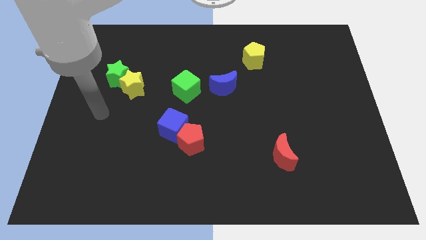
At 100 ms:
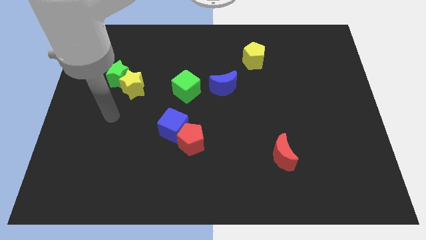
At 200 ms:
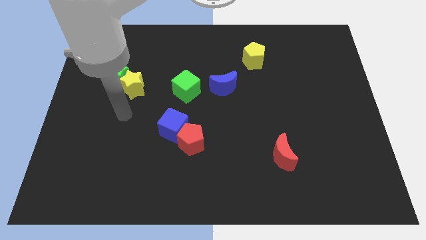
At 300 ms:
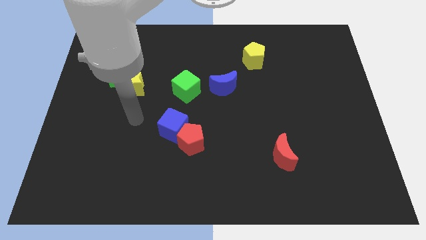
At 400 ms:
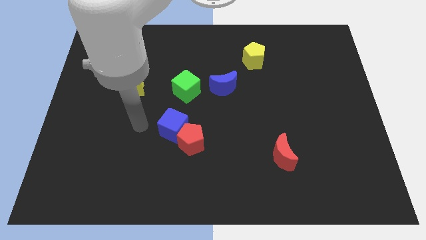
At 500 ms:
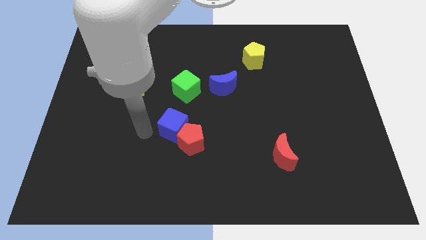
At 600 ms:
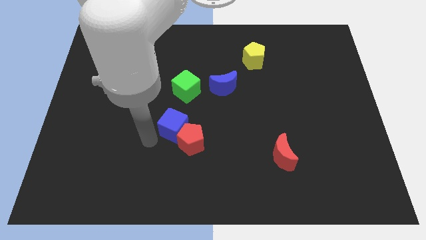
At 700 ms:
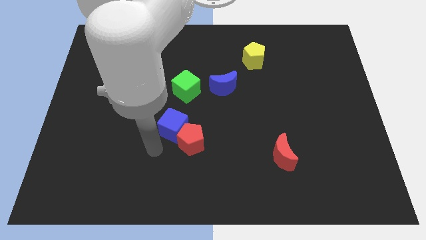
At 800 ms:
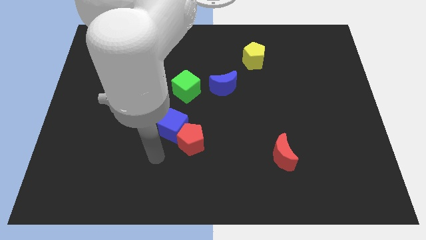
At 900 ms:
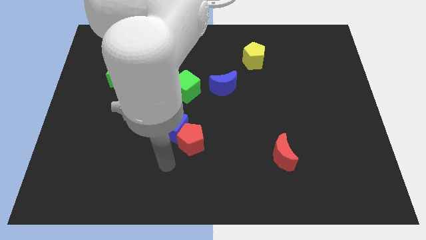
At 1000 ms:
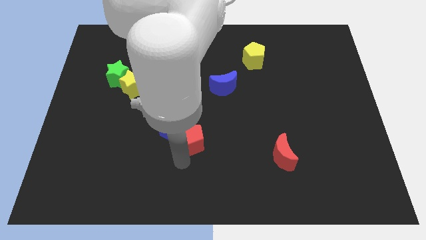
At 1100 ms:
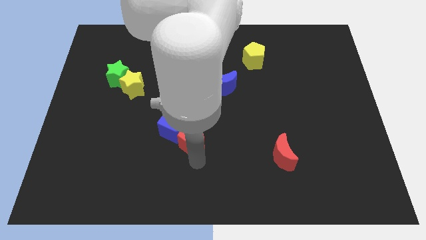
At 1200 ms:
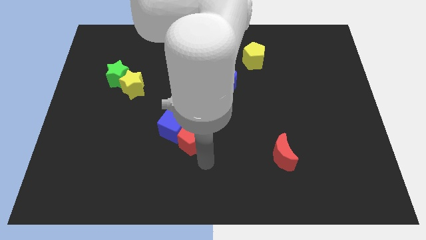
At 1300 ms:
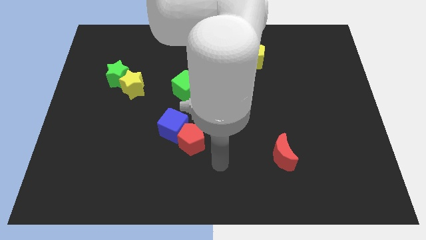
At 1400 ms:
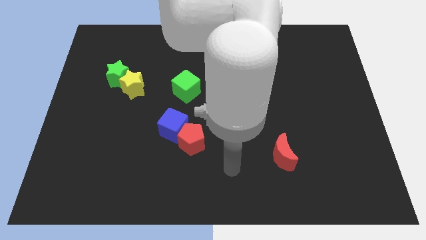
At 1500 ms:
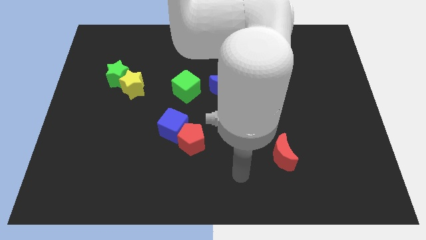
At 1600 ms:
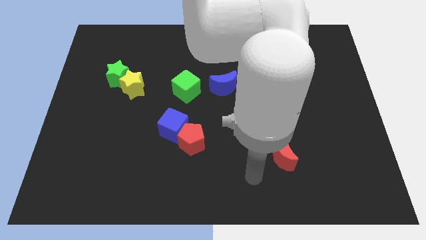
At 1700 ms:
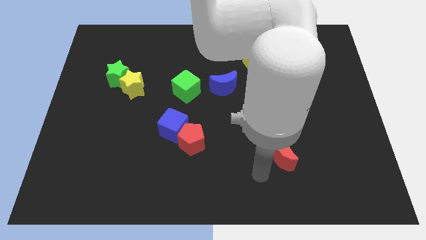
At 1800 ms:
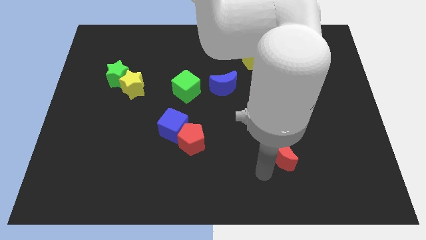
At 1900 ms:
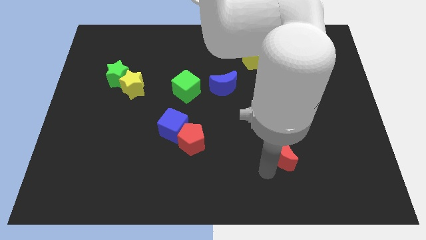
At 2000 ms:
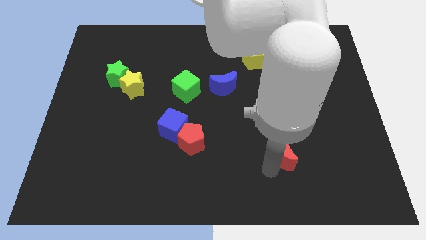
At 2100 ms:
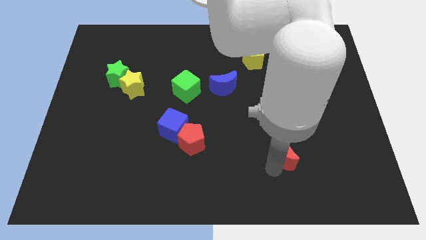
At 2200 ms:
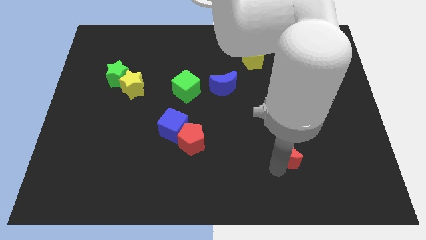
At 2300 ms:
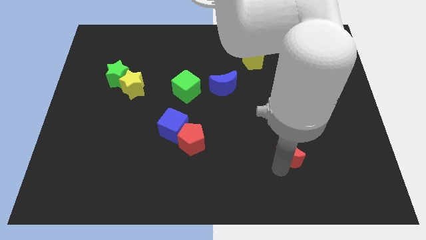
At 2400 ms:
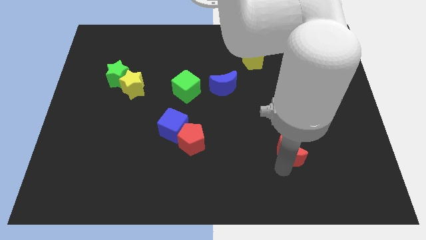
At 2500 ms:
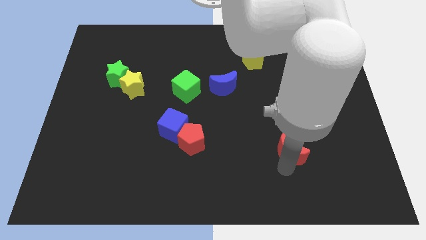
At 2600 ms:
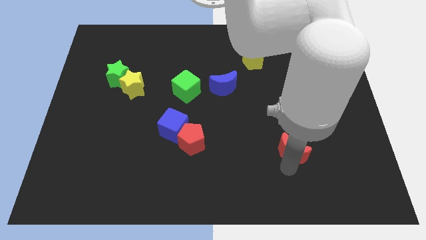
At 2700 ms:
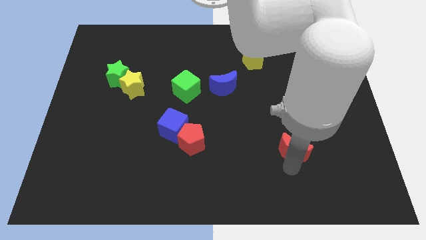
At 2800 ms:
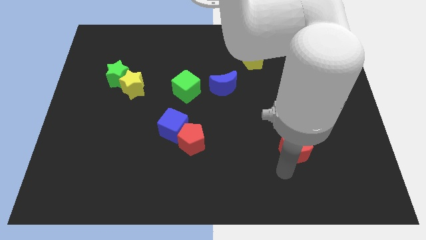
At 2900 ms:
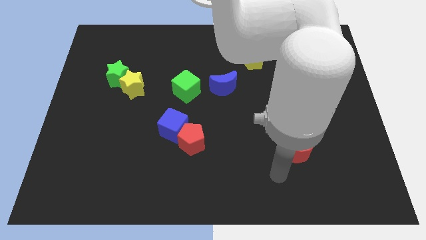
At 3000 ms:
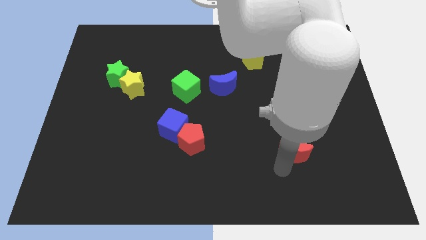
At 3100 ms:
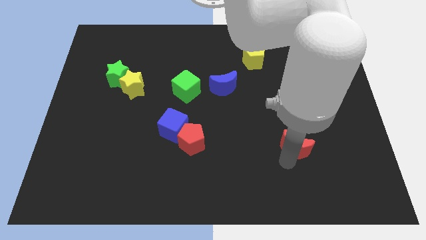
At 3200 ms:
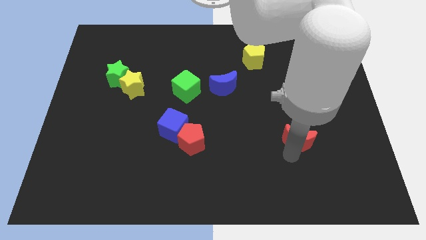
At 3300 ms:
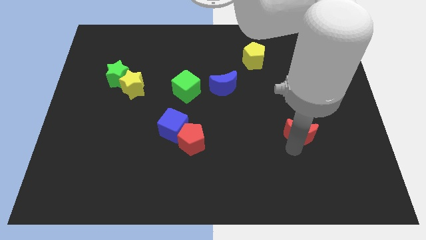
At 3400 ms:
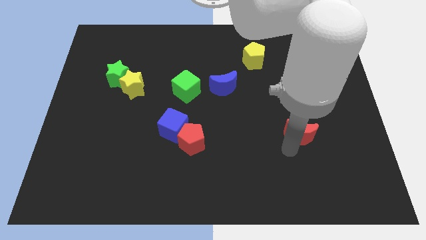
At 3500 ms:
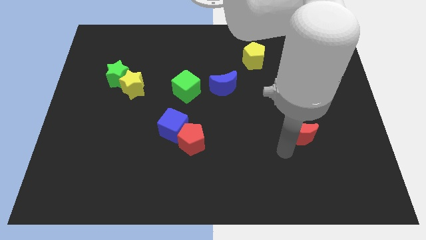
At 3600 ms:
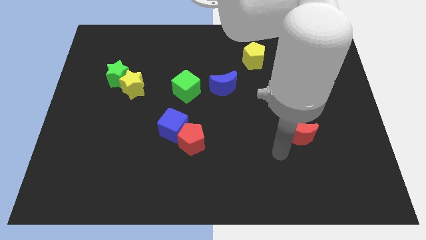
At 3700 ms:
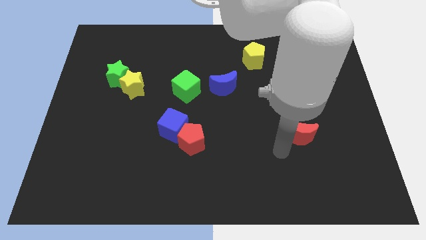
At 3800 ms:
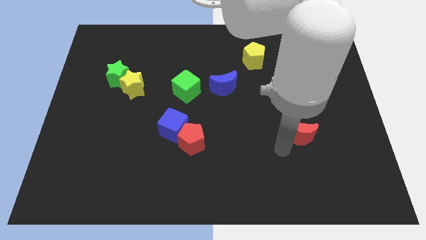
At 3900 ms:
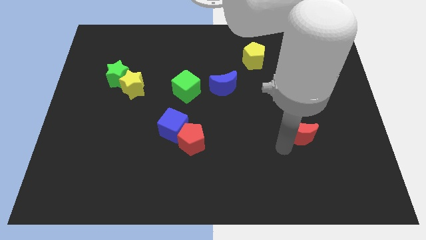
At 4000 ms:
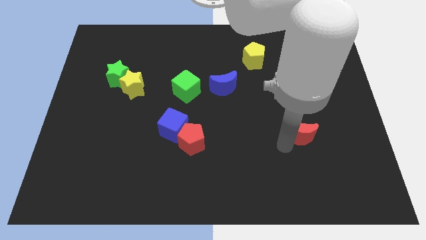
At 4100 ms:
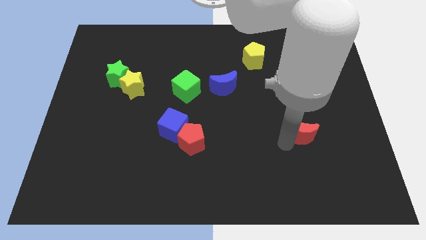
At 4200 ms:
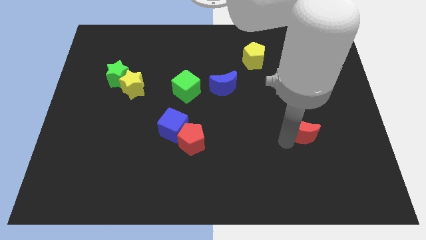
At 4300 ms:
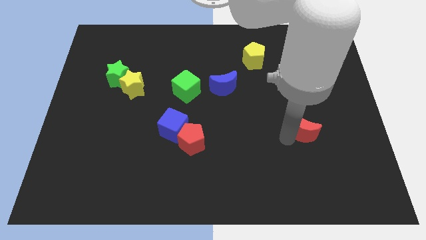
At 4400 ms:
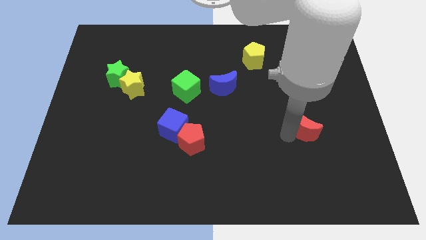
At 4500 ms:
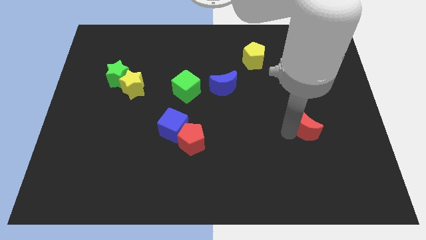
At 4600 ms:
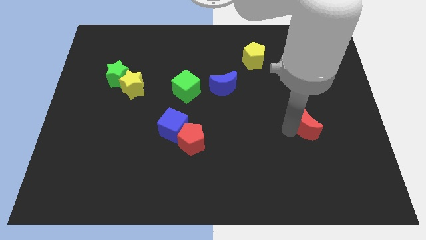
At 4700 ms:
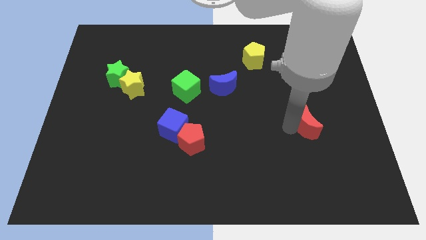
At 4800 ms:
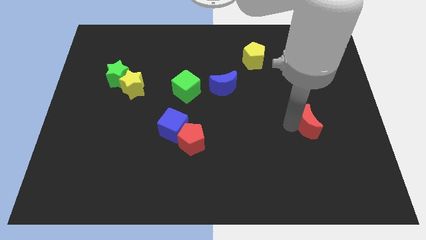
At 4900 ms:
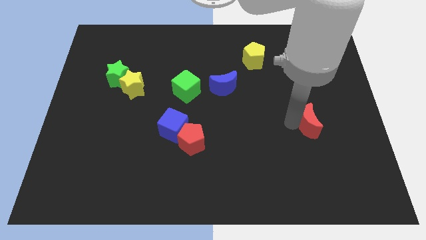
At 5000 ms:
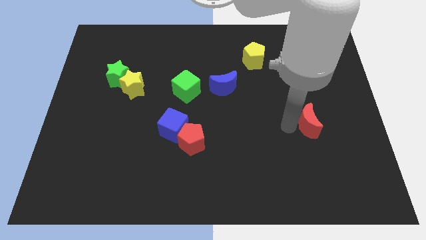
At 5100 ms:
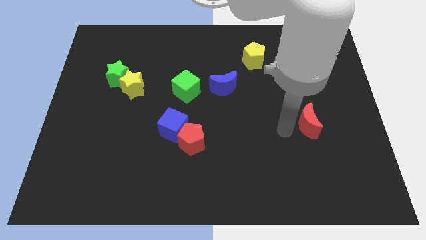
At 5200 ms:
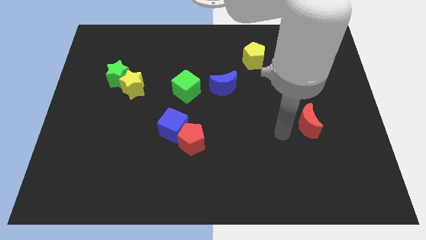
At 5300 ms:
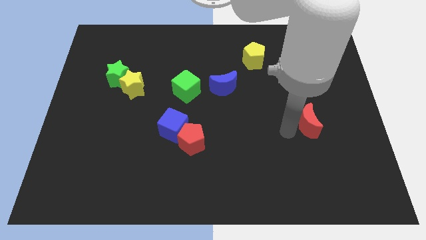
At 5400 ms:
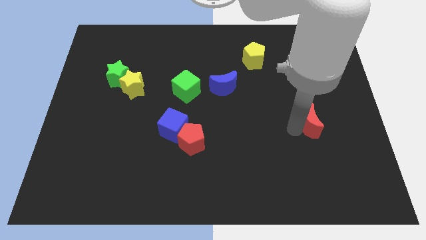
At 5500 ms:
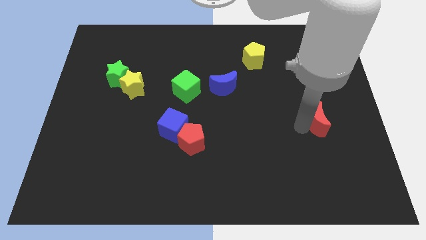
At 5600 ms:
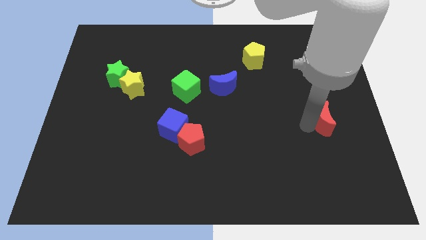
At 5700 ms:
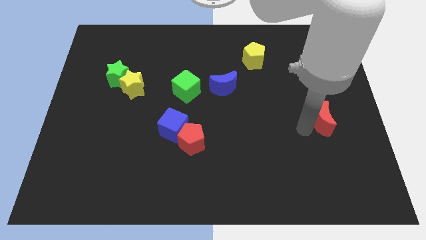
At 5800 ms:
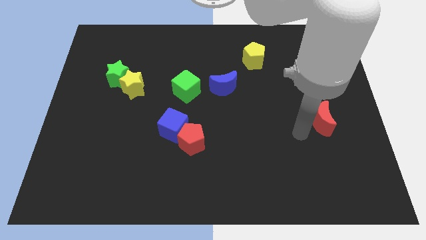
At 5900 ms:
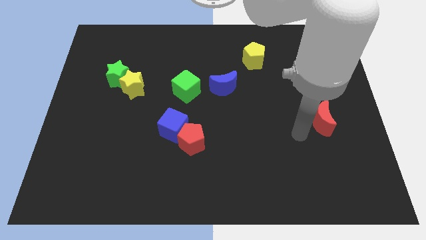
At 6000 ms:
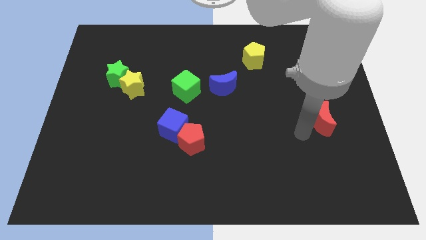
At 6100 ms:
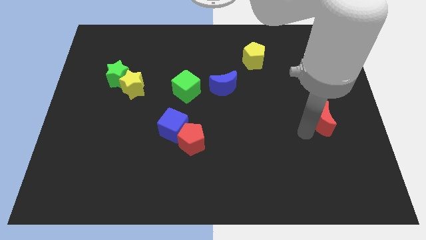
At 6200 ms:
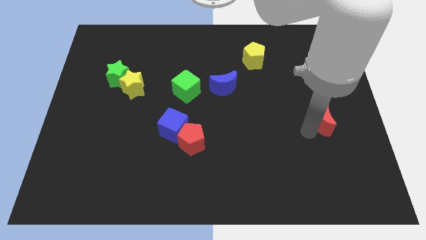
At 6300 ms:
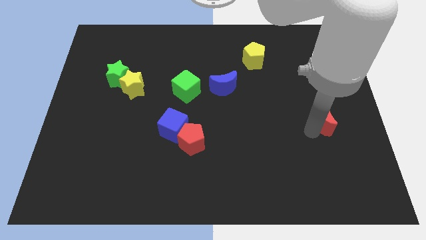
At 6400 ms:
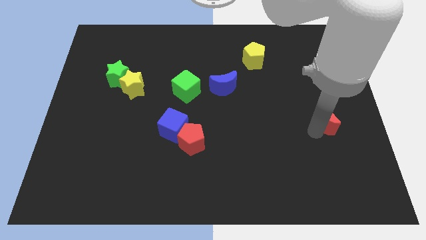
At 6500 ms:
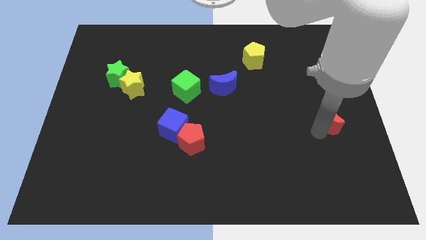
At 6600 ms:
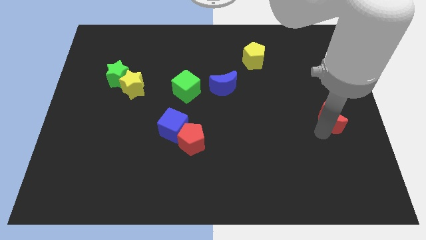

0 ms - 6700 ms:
slide the red moon to the right side of the board
